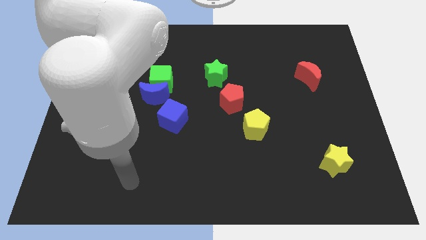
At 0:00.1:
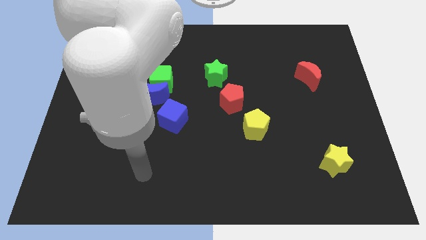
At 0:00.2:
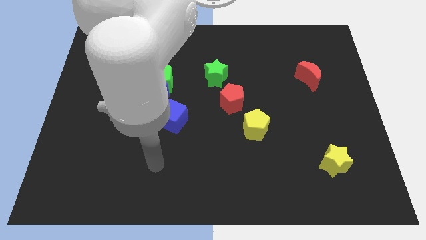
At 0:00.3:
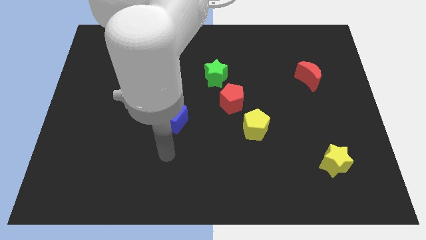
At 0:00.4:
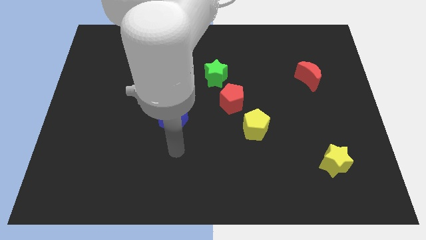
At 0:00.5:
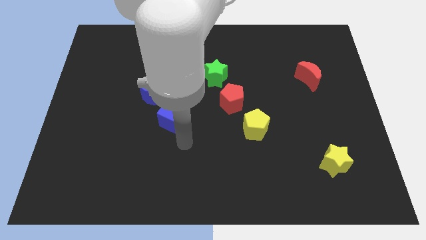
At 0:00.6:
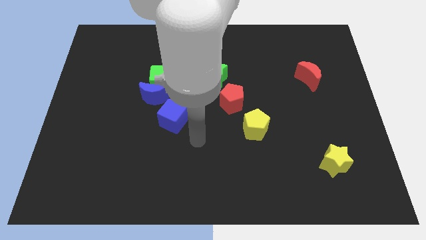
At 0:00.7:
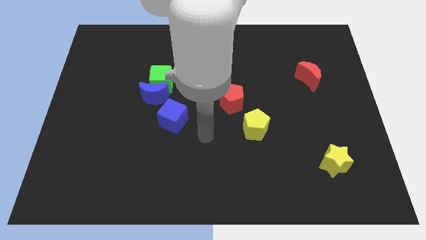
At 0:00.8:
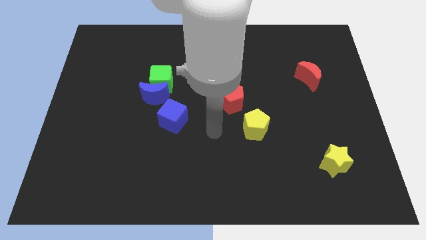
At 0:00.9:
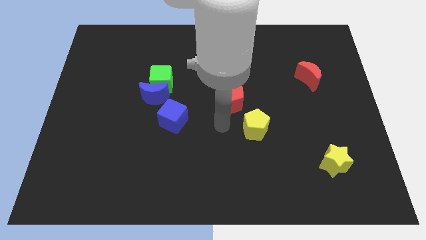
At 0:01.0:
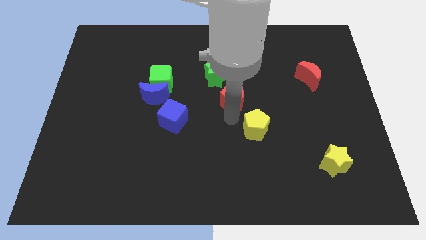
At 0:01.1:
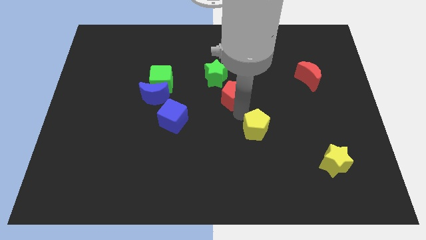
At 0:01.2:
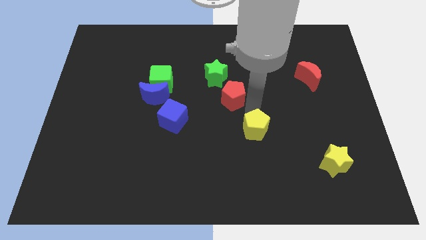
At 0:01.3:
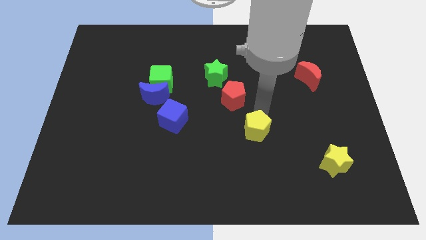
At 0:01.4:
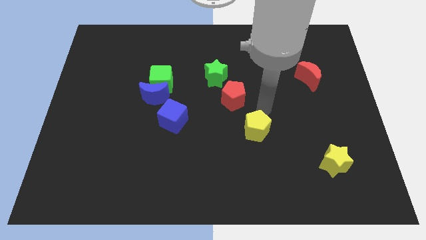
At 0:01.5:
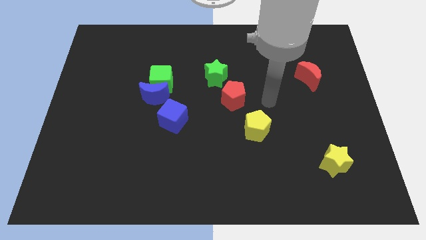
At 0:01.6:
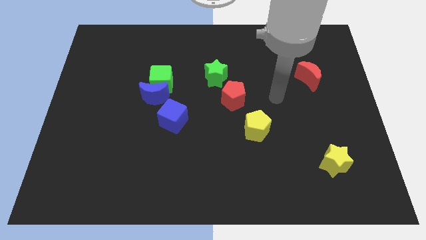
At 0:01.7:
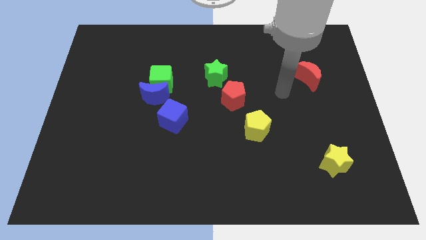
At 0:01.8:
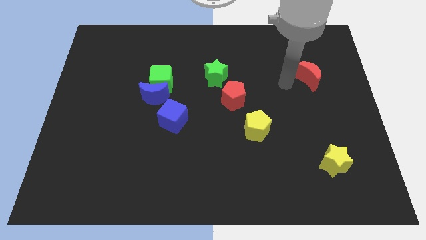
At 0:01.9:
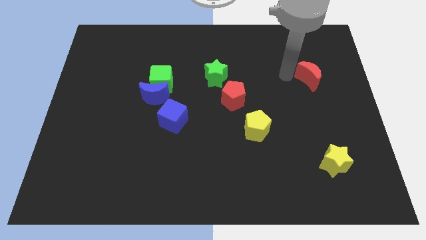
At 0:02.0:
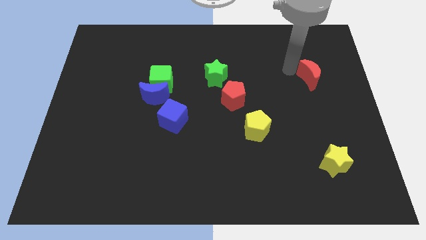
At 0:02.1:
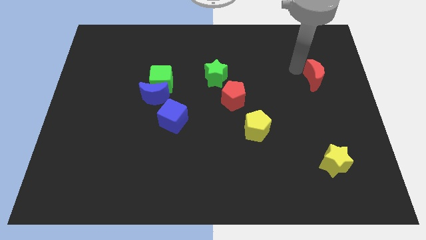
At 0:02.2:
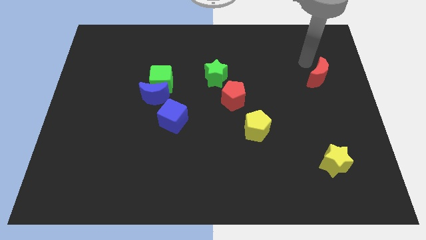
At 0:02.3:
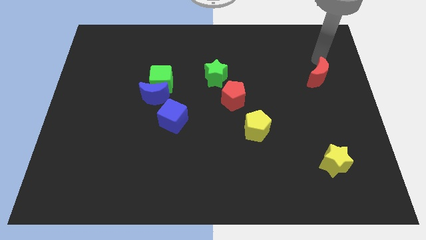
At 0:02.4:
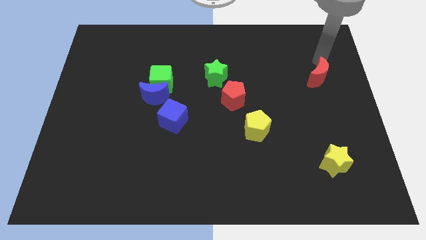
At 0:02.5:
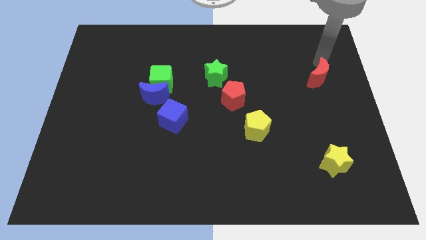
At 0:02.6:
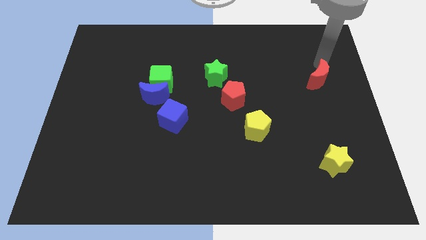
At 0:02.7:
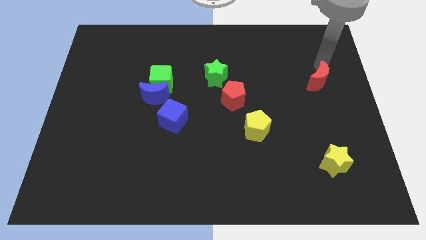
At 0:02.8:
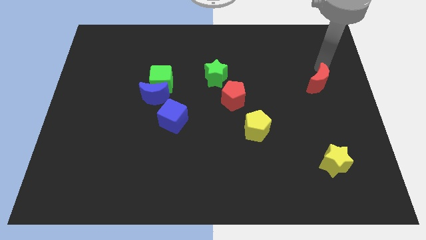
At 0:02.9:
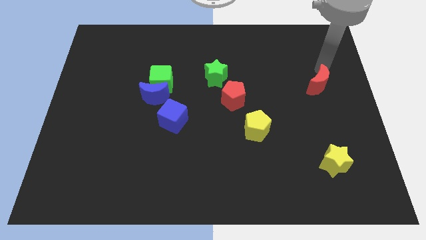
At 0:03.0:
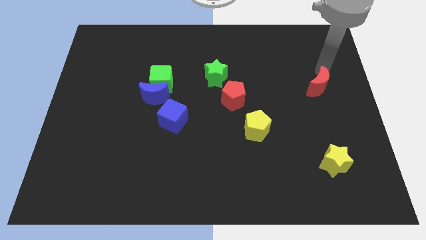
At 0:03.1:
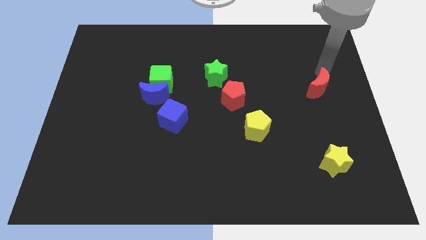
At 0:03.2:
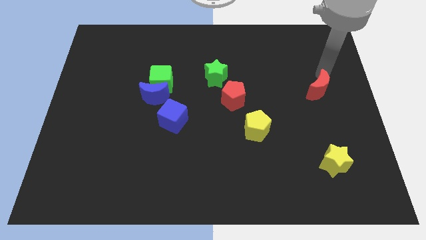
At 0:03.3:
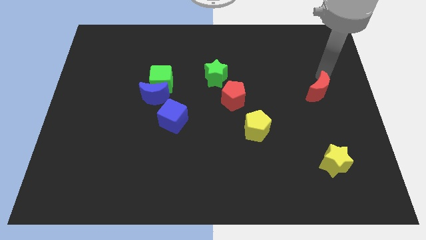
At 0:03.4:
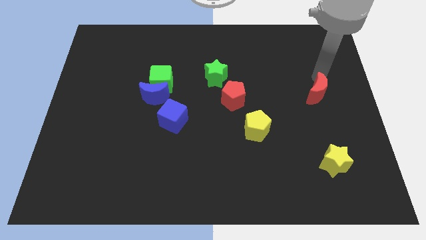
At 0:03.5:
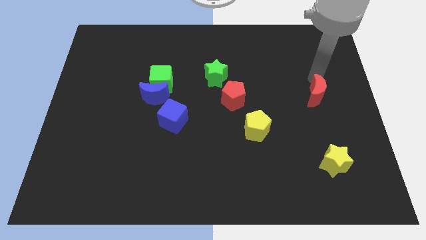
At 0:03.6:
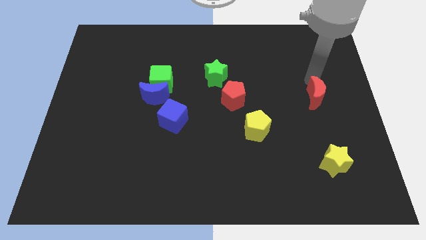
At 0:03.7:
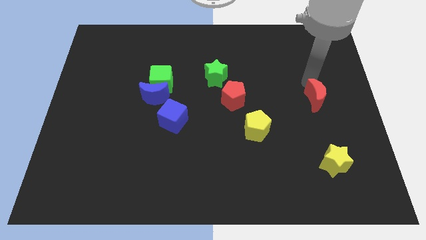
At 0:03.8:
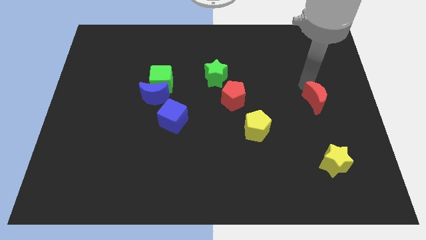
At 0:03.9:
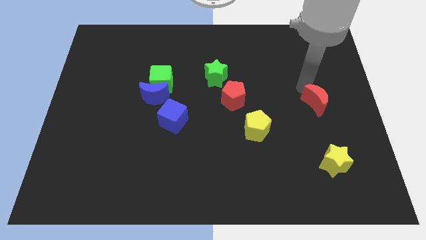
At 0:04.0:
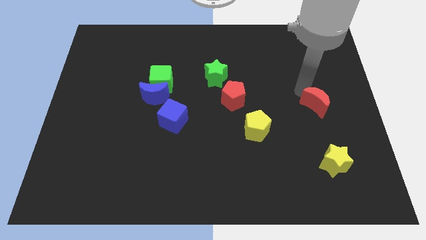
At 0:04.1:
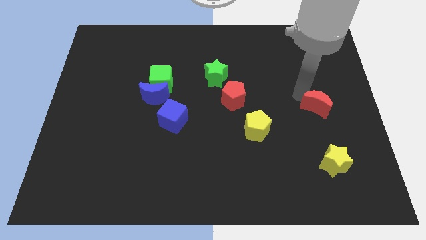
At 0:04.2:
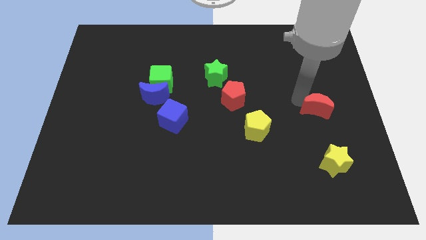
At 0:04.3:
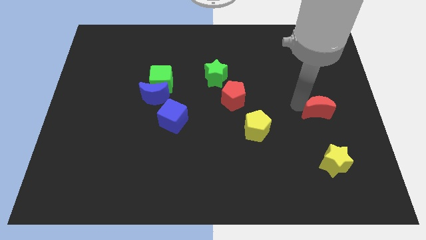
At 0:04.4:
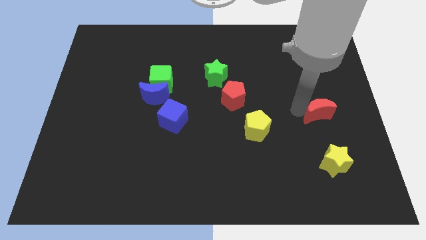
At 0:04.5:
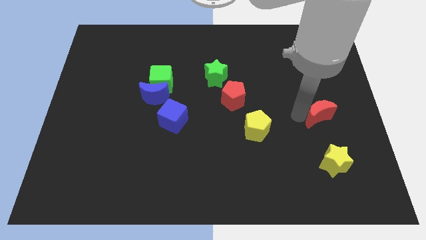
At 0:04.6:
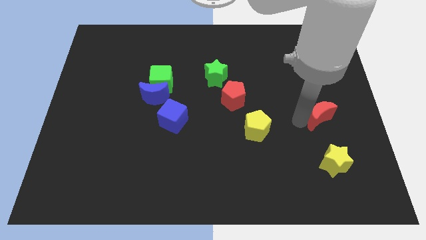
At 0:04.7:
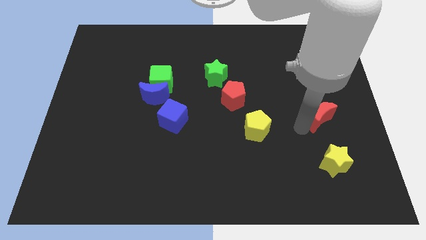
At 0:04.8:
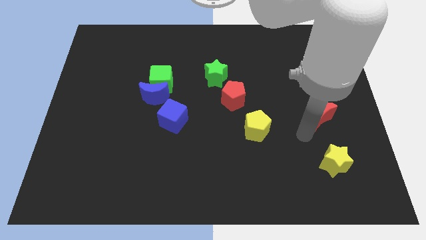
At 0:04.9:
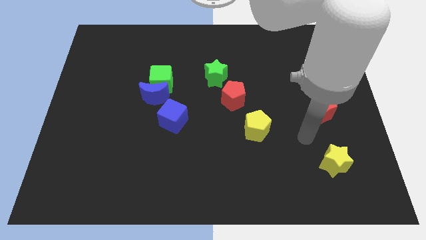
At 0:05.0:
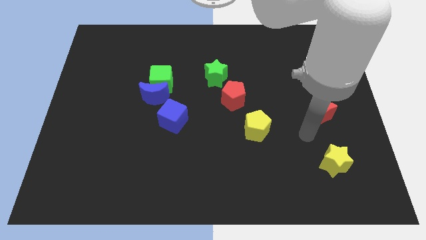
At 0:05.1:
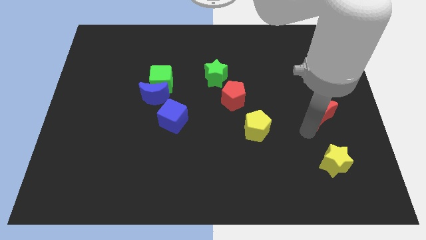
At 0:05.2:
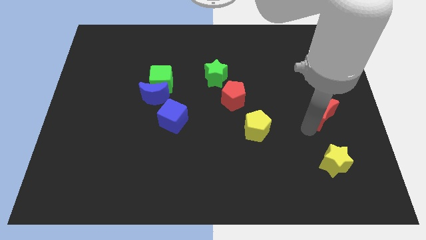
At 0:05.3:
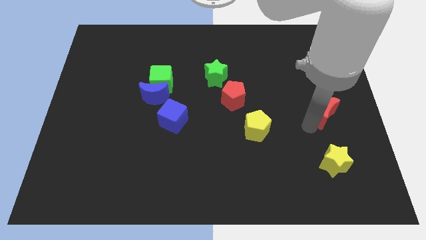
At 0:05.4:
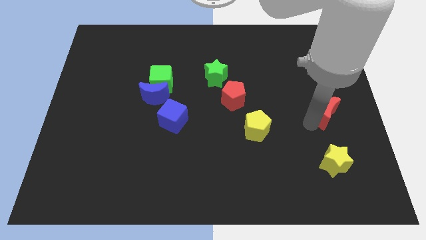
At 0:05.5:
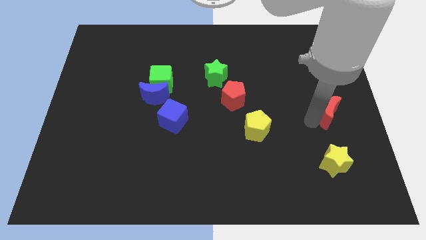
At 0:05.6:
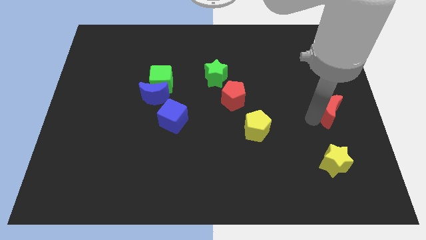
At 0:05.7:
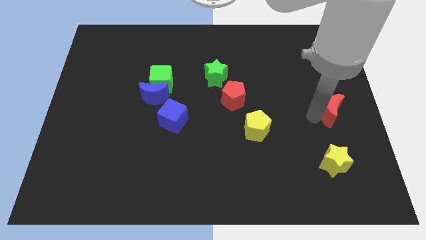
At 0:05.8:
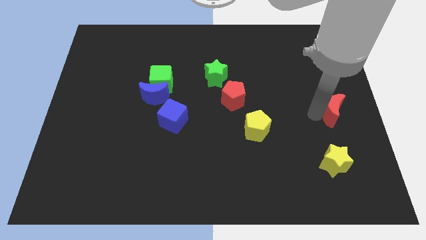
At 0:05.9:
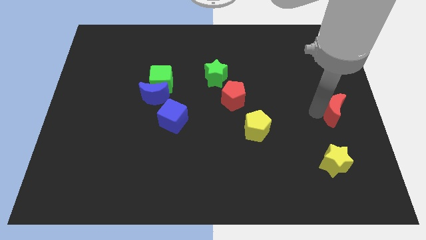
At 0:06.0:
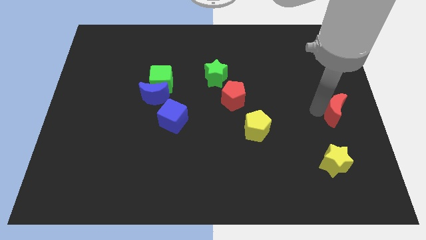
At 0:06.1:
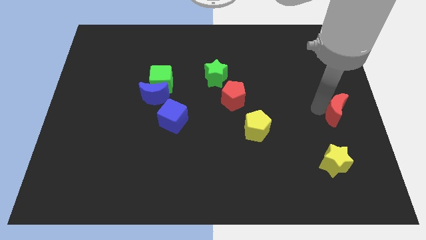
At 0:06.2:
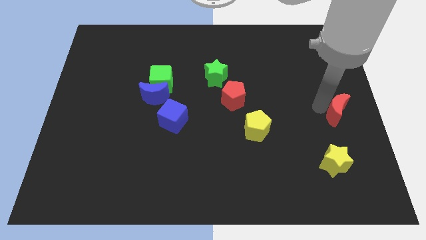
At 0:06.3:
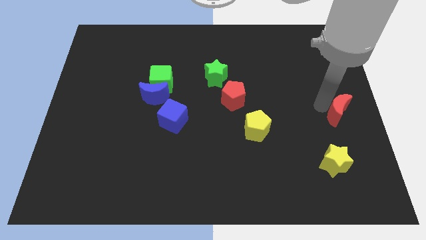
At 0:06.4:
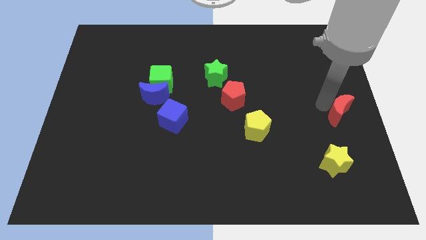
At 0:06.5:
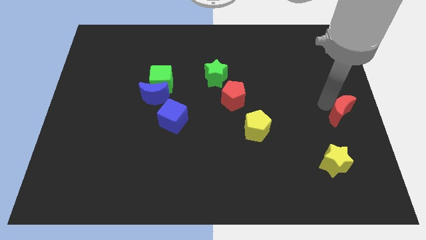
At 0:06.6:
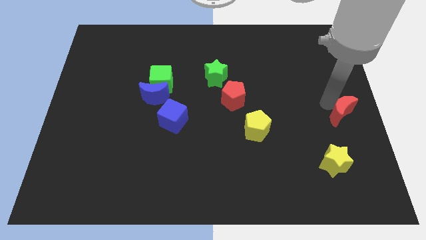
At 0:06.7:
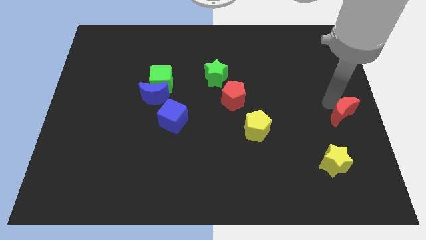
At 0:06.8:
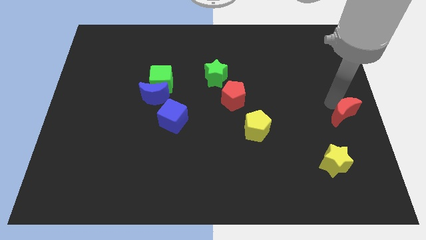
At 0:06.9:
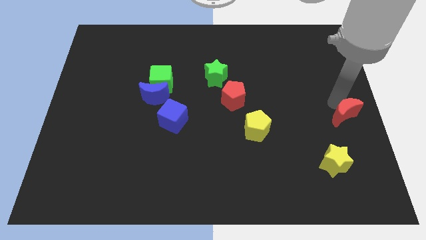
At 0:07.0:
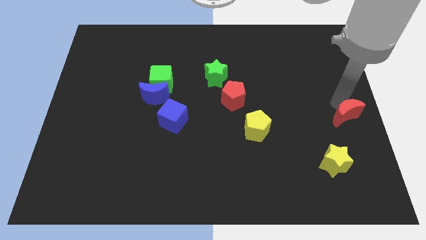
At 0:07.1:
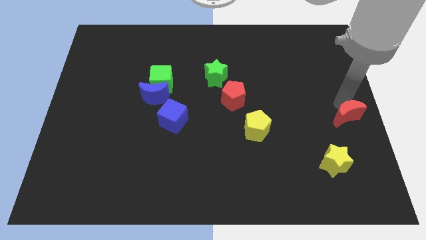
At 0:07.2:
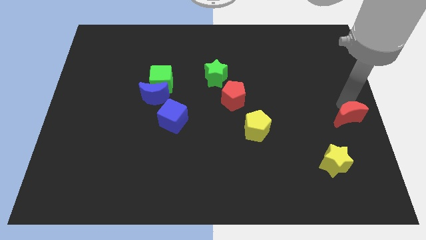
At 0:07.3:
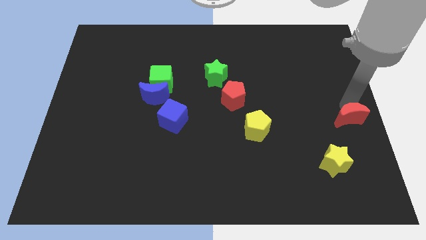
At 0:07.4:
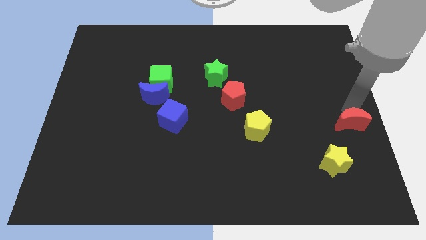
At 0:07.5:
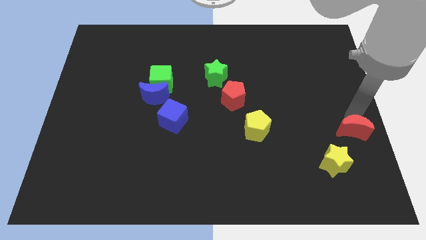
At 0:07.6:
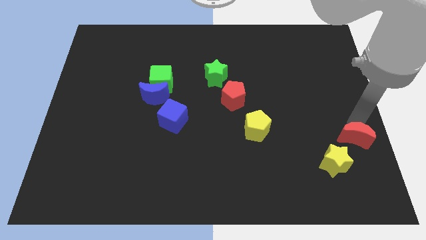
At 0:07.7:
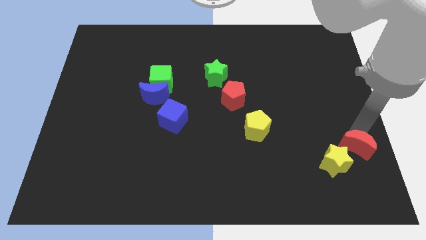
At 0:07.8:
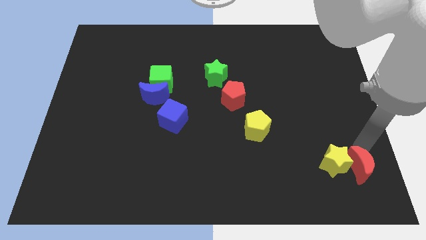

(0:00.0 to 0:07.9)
move the red moon to the bottom right
